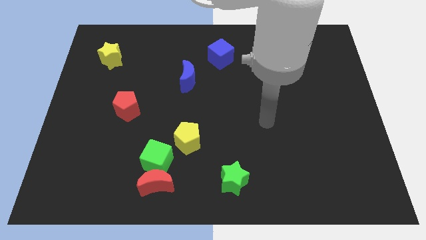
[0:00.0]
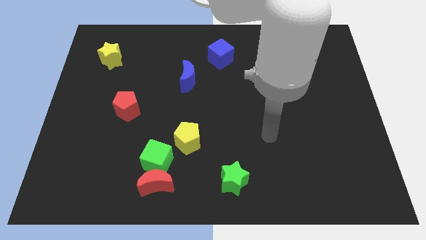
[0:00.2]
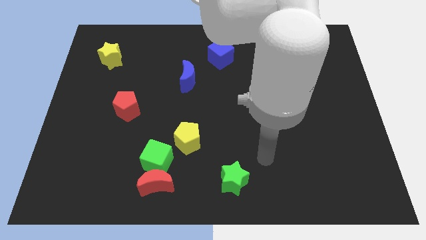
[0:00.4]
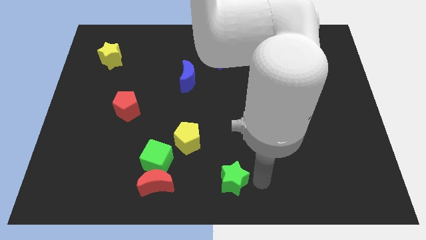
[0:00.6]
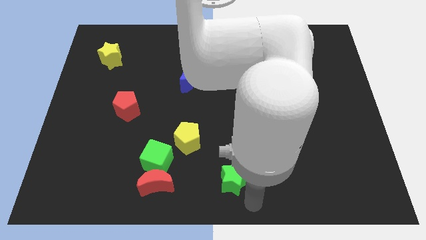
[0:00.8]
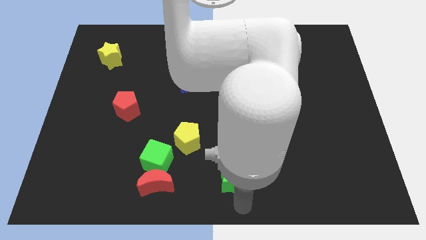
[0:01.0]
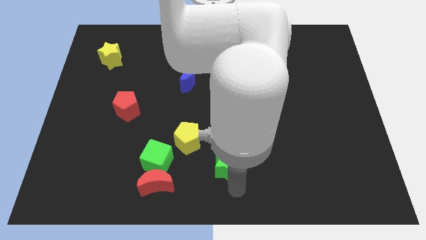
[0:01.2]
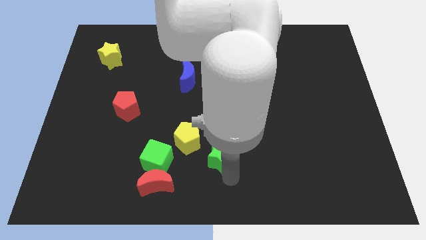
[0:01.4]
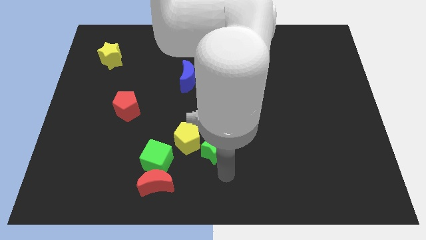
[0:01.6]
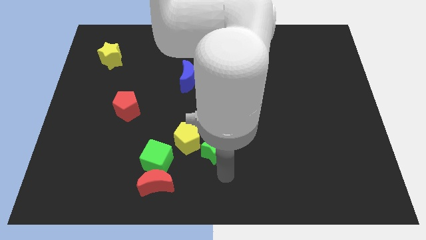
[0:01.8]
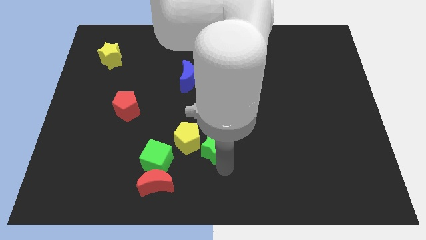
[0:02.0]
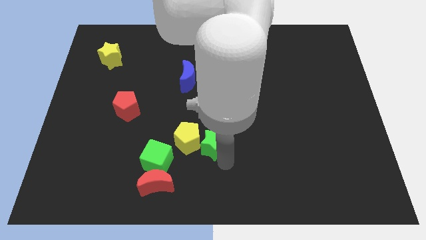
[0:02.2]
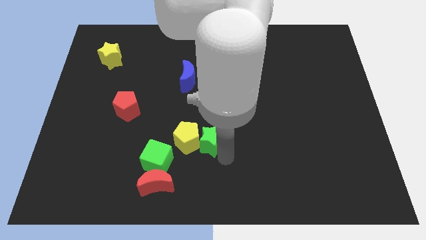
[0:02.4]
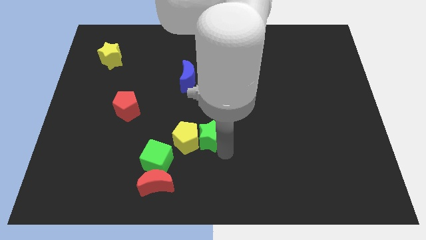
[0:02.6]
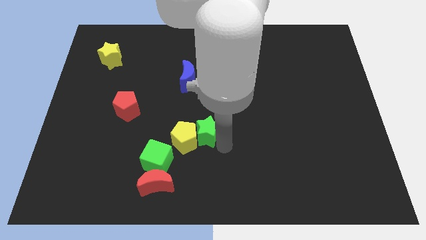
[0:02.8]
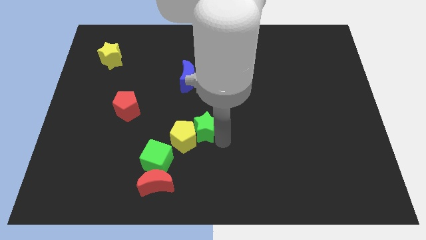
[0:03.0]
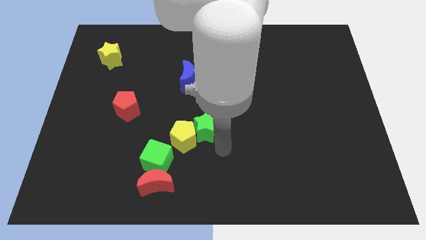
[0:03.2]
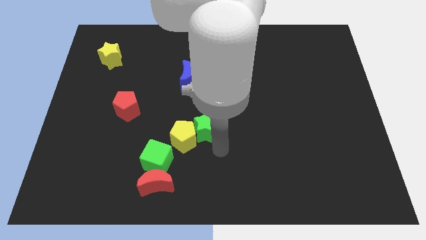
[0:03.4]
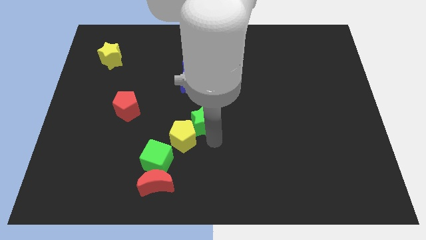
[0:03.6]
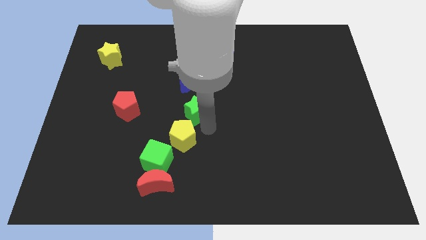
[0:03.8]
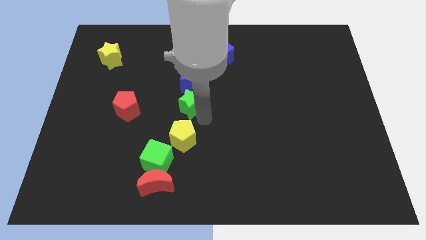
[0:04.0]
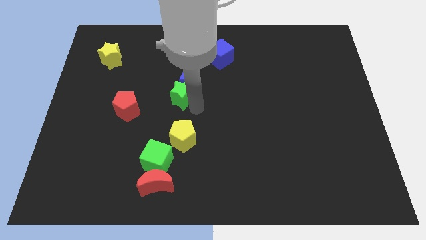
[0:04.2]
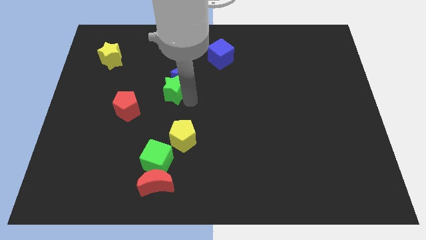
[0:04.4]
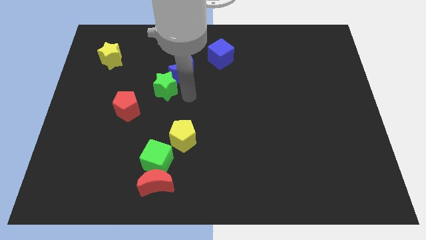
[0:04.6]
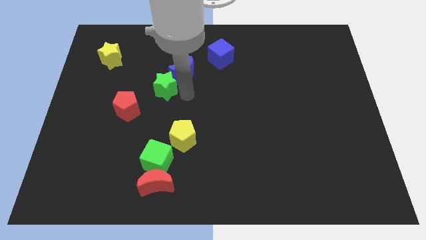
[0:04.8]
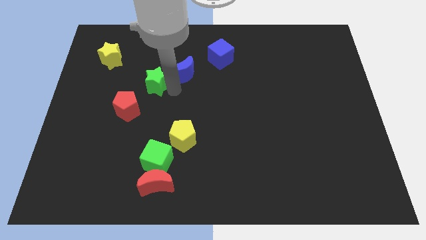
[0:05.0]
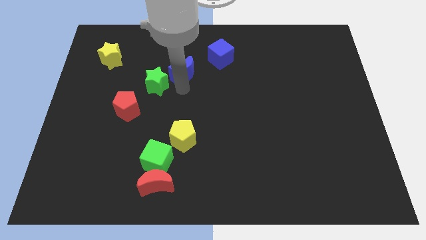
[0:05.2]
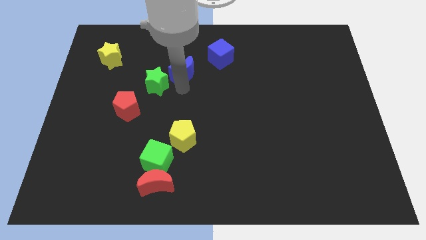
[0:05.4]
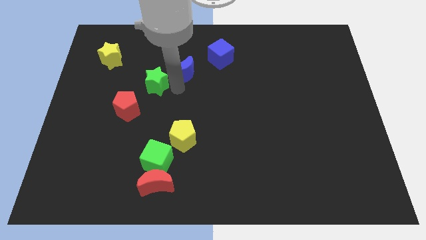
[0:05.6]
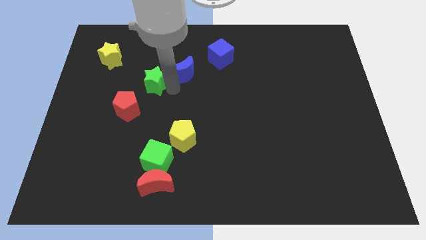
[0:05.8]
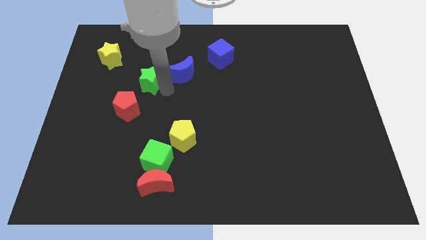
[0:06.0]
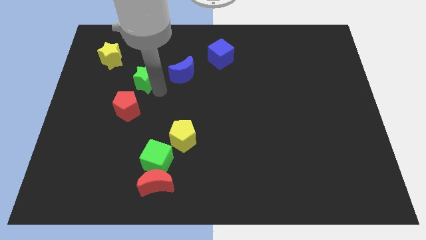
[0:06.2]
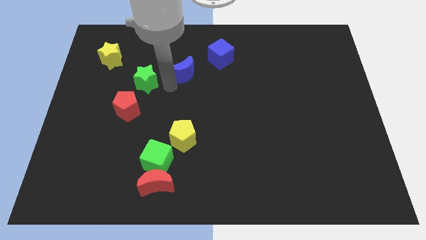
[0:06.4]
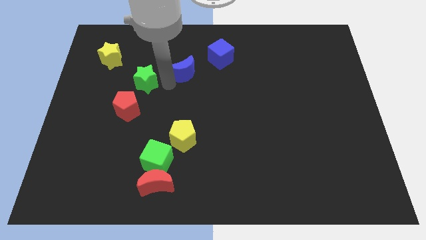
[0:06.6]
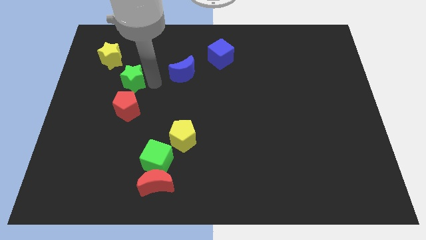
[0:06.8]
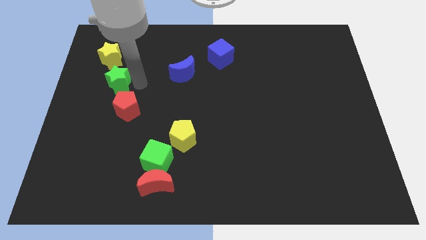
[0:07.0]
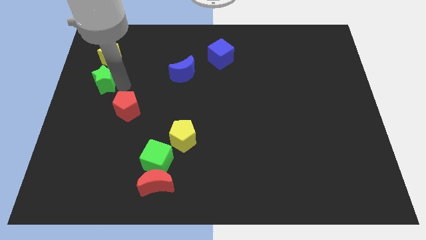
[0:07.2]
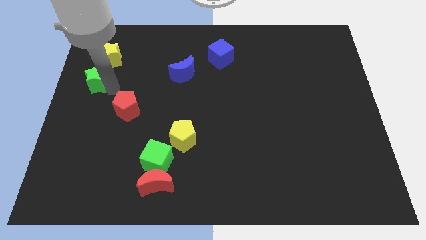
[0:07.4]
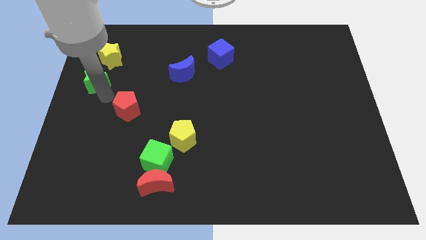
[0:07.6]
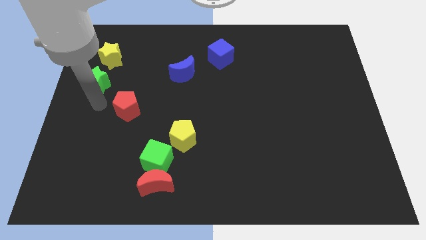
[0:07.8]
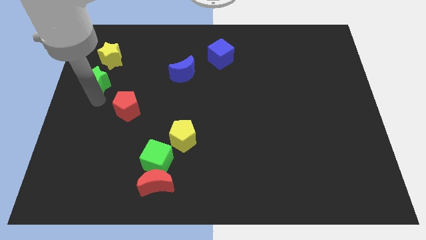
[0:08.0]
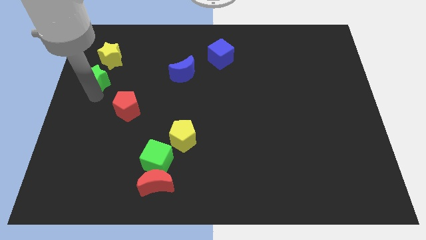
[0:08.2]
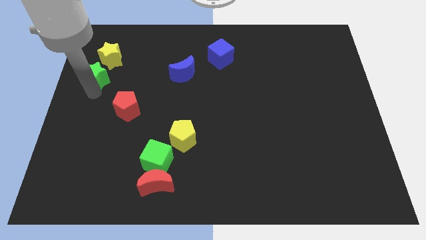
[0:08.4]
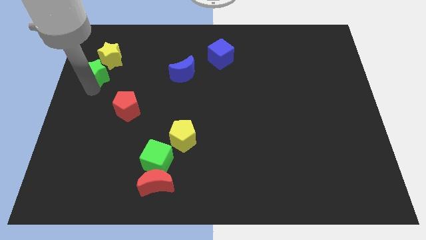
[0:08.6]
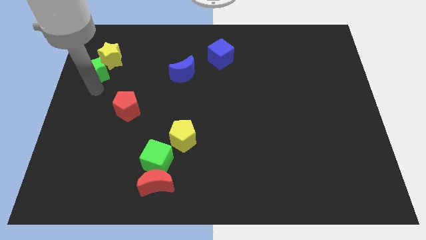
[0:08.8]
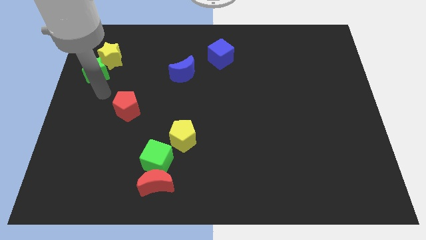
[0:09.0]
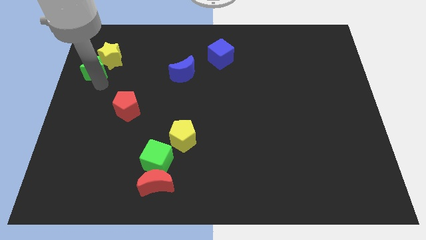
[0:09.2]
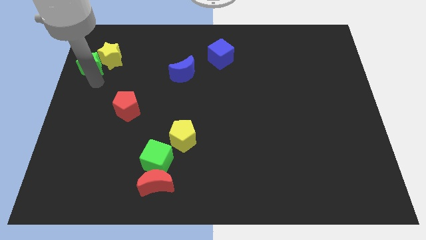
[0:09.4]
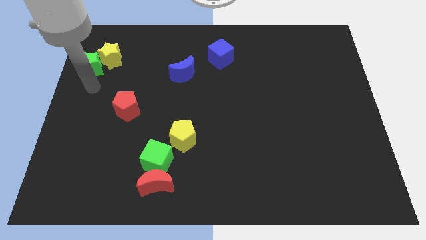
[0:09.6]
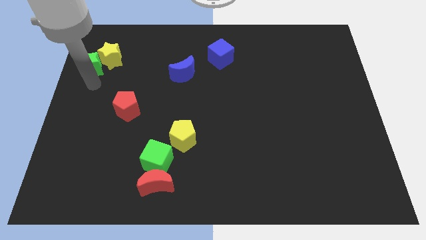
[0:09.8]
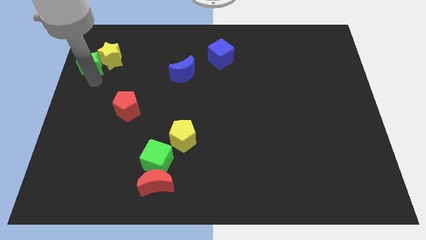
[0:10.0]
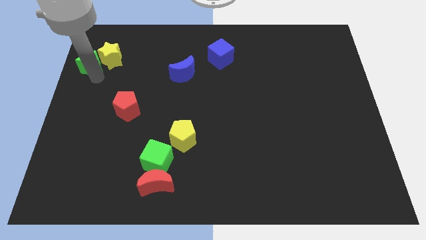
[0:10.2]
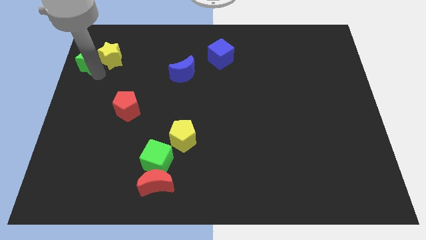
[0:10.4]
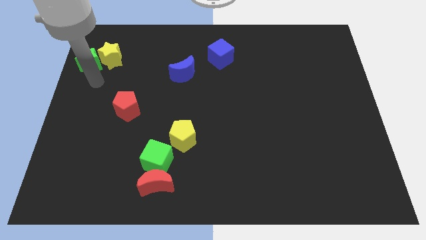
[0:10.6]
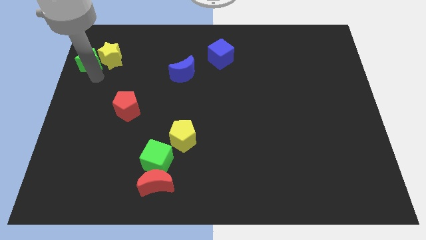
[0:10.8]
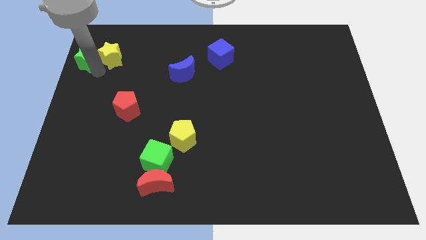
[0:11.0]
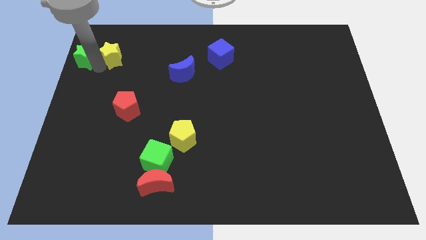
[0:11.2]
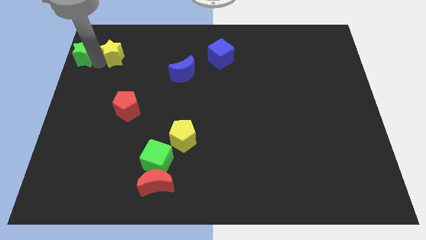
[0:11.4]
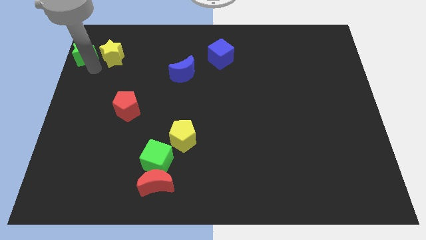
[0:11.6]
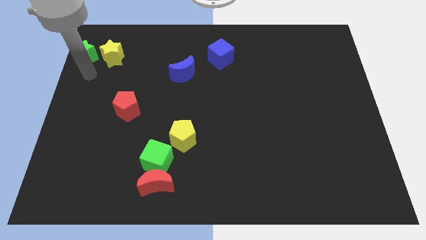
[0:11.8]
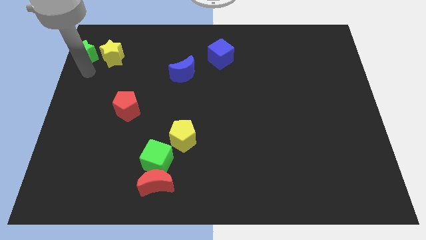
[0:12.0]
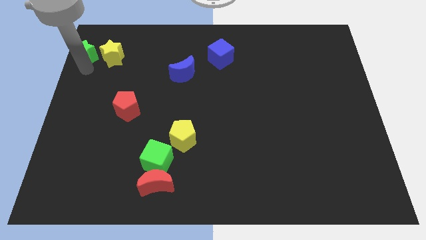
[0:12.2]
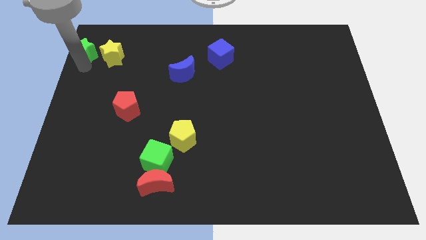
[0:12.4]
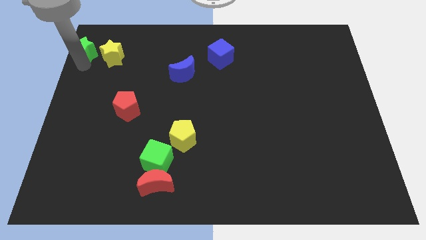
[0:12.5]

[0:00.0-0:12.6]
move the green star to the upper left corner

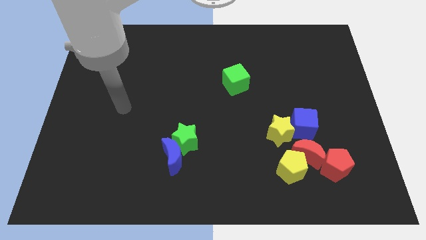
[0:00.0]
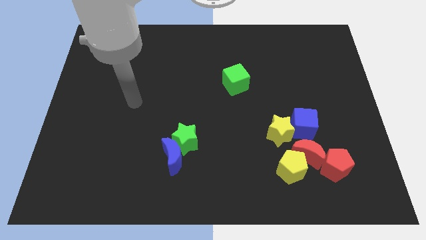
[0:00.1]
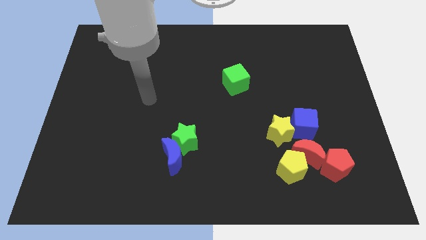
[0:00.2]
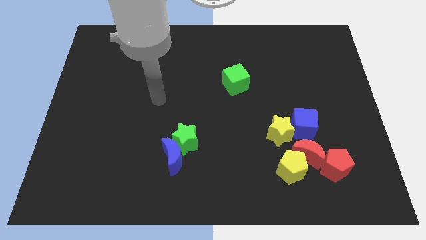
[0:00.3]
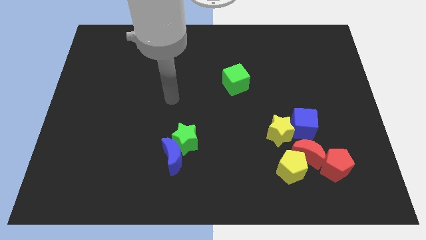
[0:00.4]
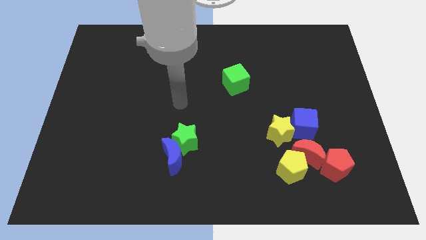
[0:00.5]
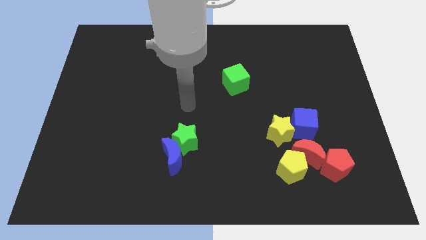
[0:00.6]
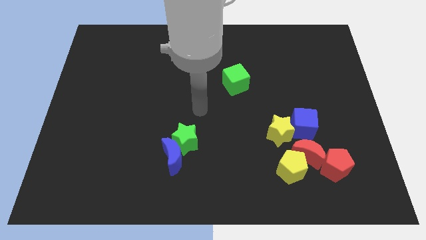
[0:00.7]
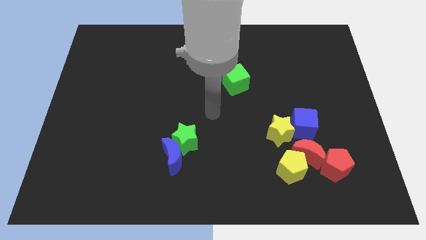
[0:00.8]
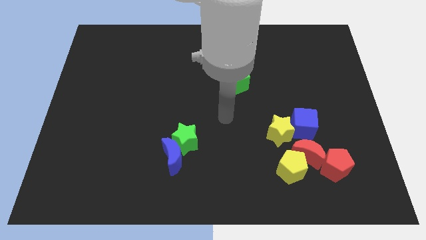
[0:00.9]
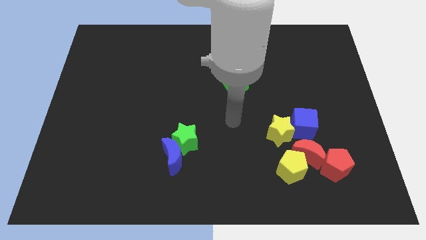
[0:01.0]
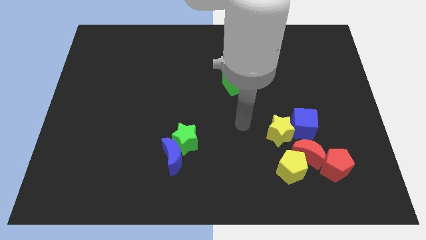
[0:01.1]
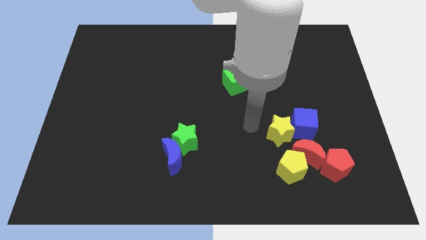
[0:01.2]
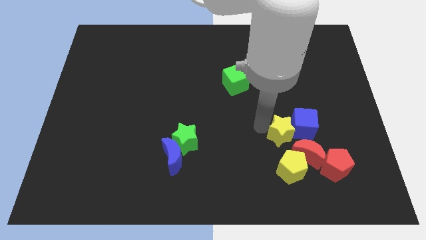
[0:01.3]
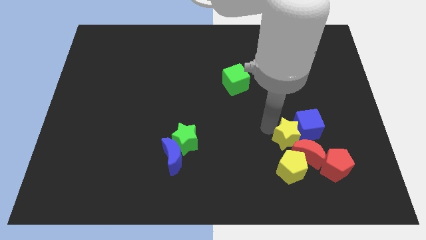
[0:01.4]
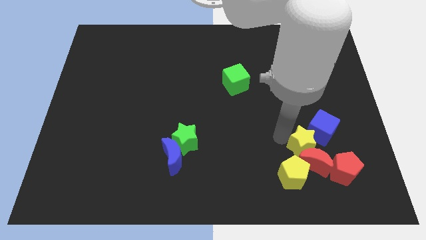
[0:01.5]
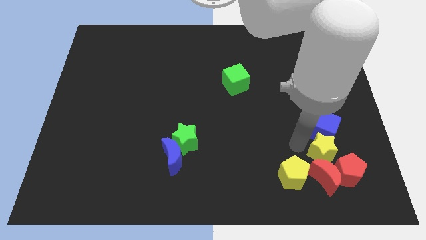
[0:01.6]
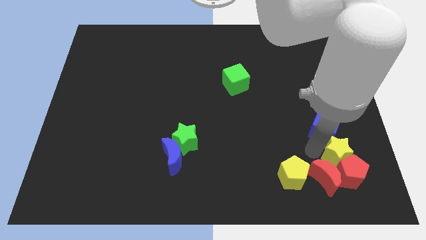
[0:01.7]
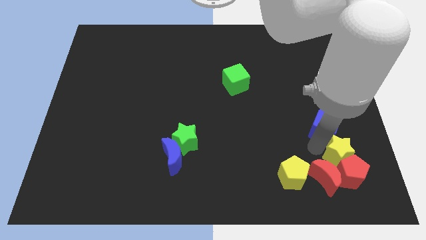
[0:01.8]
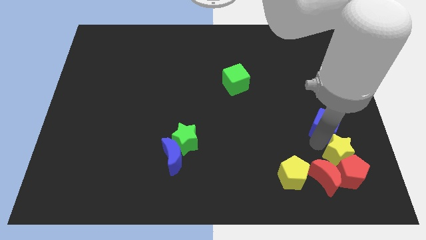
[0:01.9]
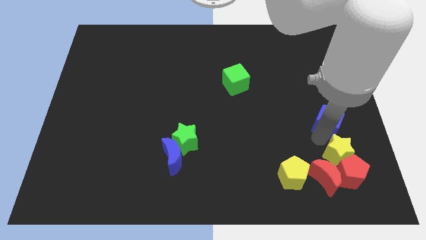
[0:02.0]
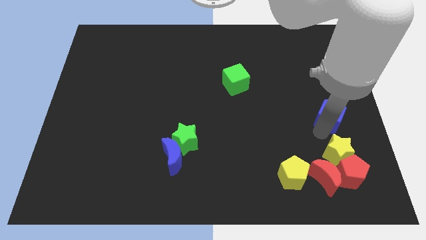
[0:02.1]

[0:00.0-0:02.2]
slide the blue cube to the right side
